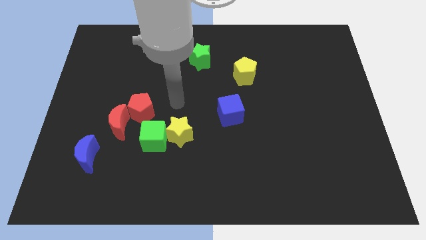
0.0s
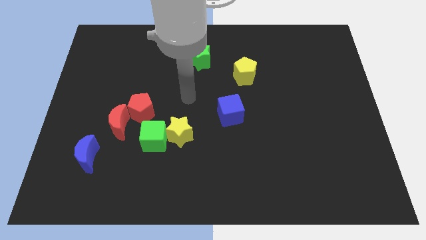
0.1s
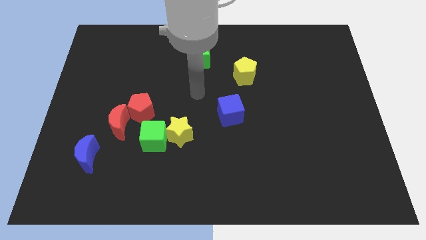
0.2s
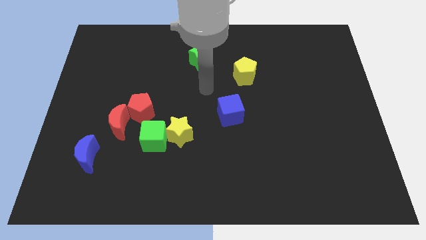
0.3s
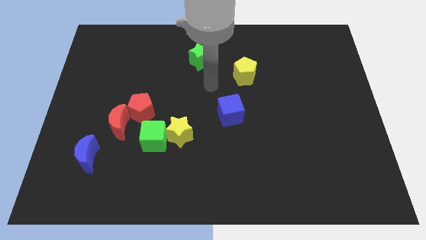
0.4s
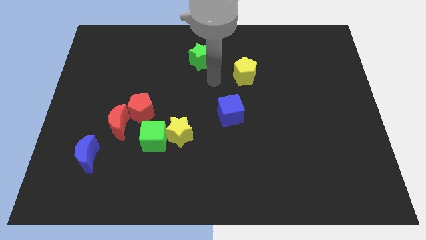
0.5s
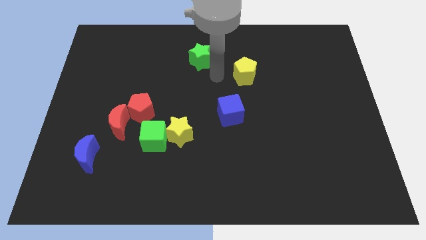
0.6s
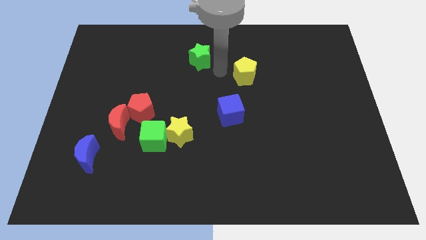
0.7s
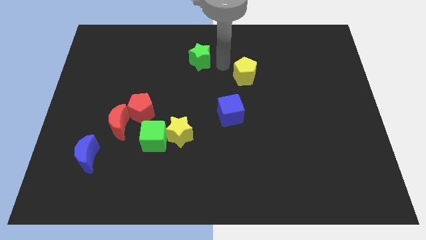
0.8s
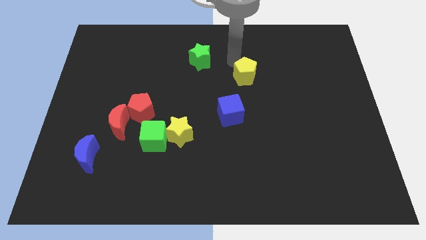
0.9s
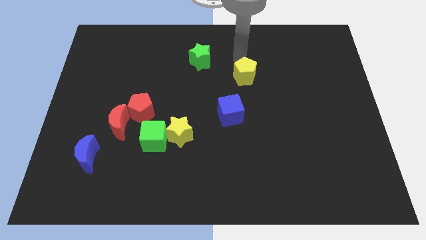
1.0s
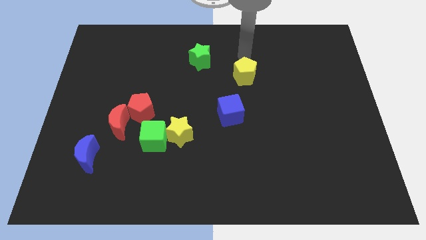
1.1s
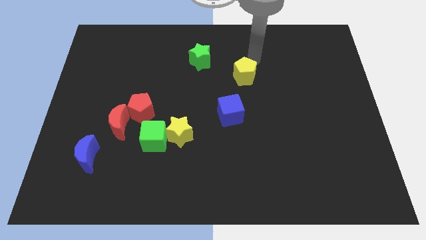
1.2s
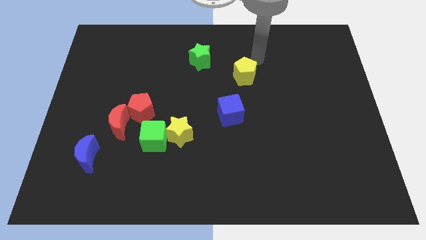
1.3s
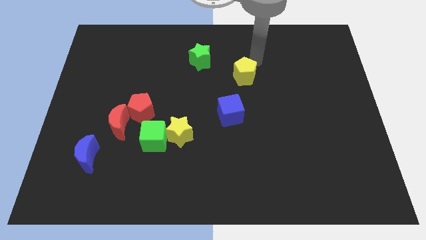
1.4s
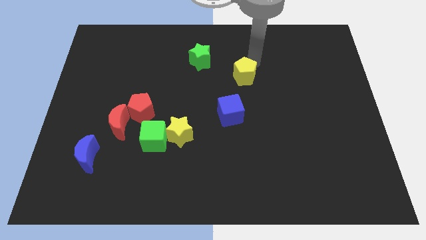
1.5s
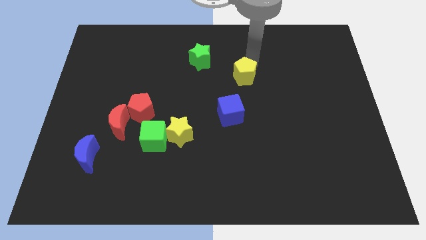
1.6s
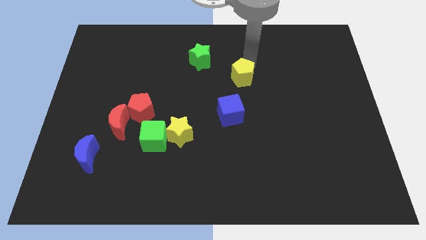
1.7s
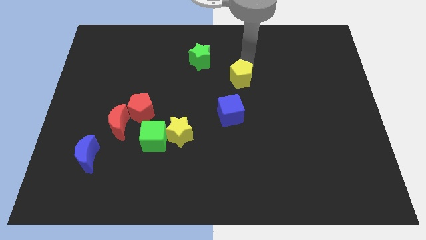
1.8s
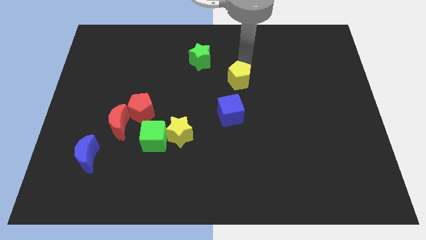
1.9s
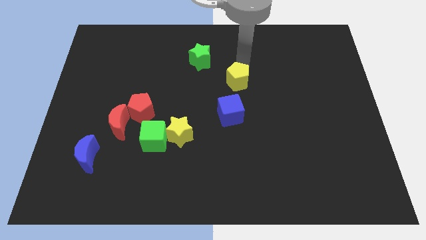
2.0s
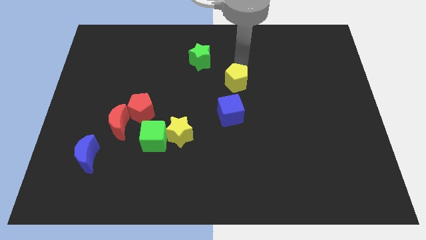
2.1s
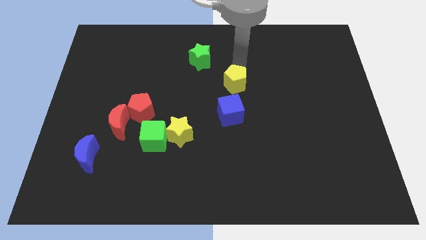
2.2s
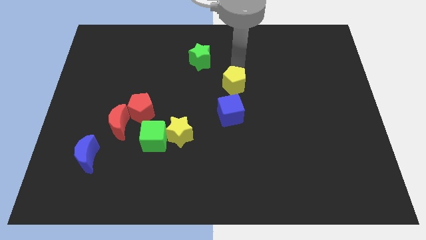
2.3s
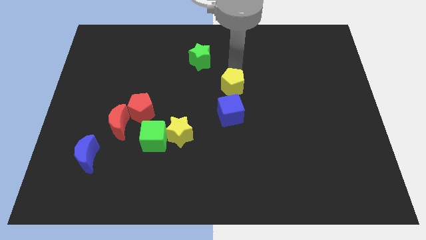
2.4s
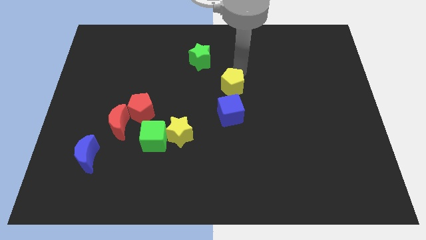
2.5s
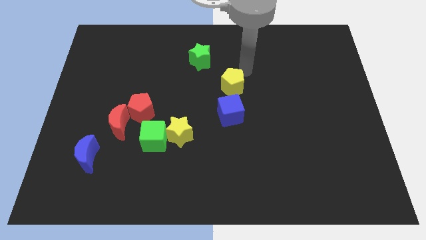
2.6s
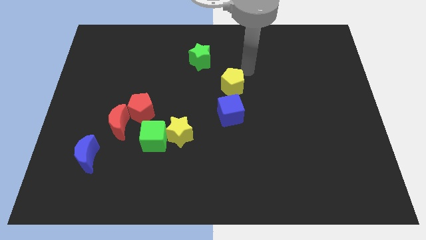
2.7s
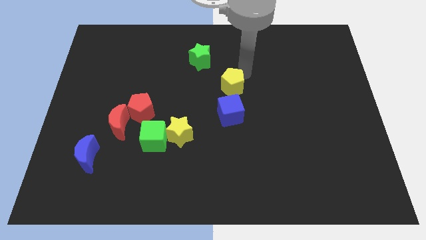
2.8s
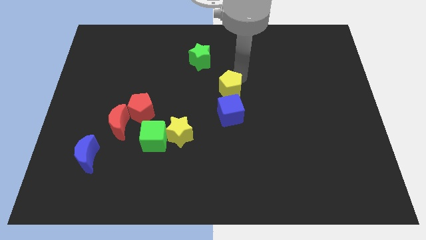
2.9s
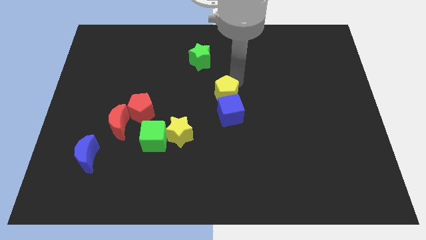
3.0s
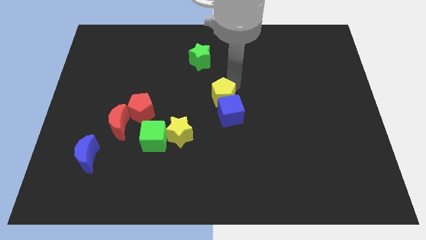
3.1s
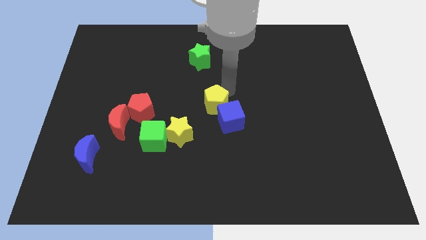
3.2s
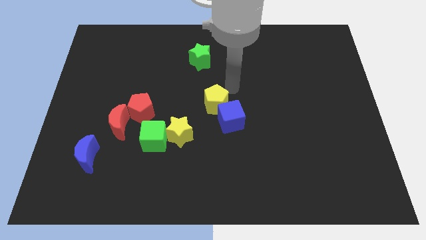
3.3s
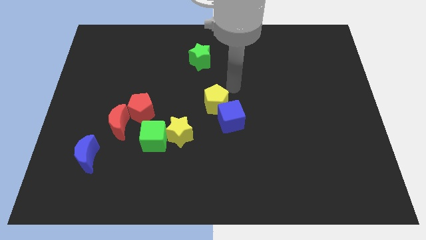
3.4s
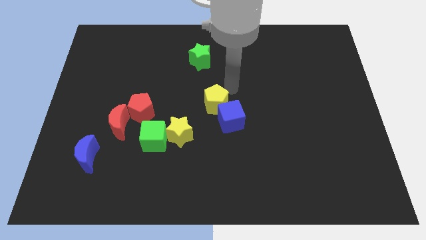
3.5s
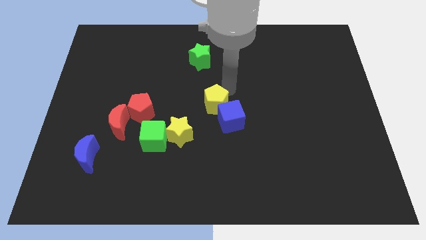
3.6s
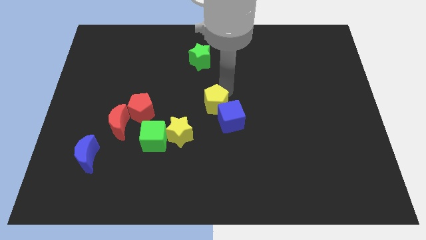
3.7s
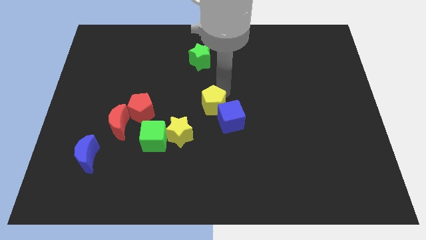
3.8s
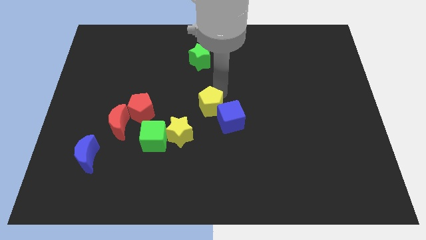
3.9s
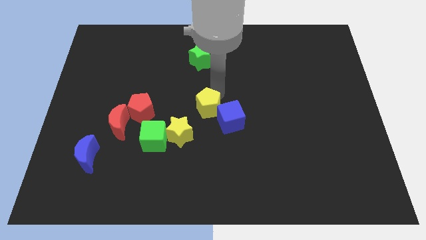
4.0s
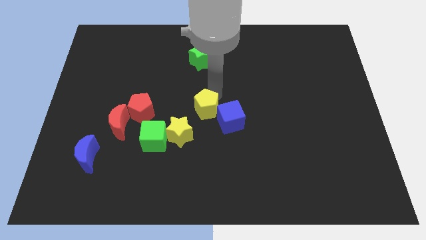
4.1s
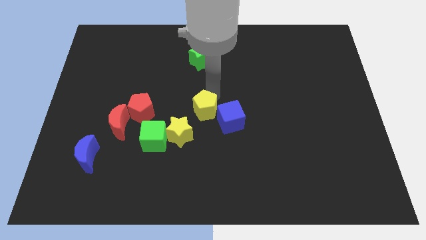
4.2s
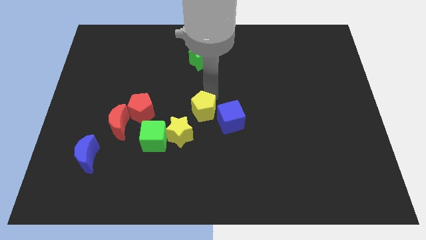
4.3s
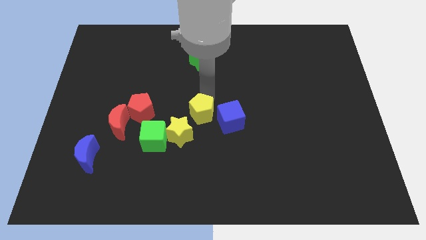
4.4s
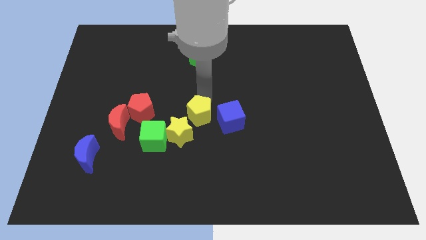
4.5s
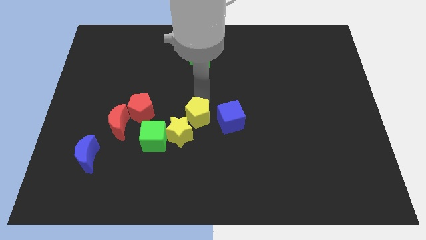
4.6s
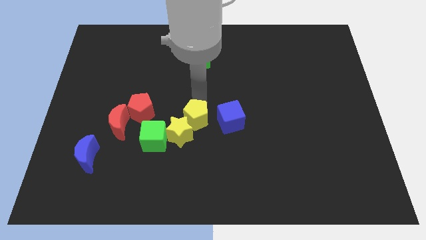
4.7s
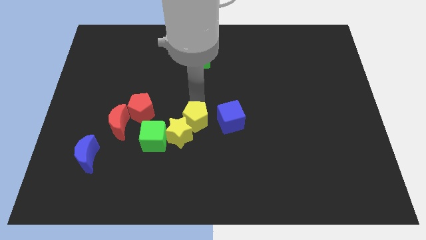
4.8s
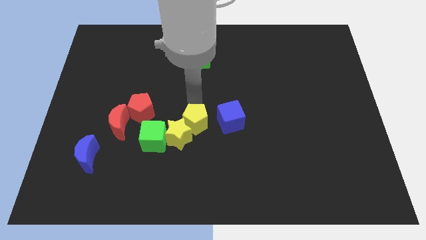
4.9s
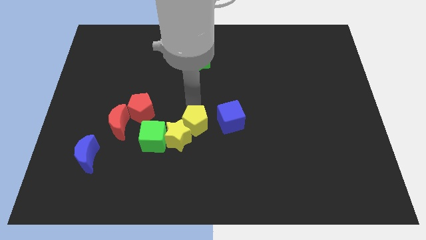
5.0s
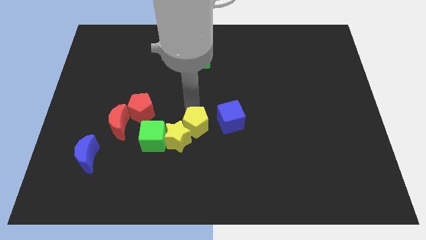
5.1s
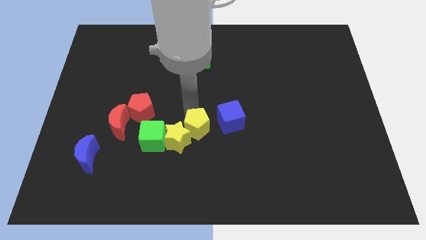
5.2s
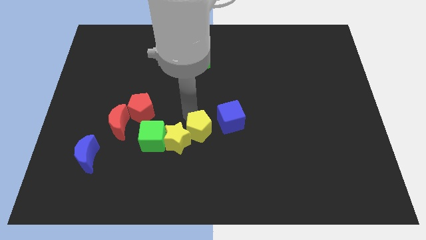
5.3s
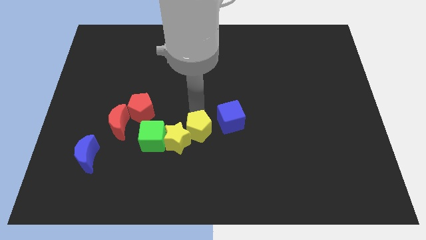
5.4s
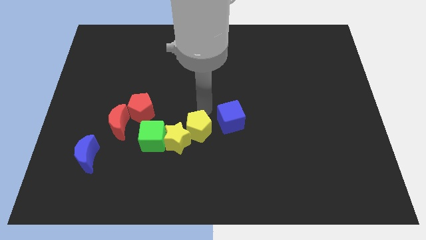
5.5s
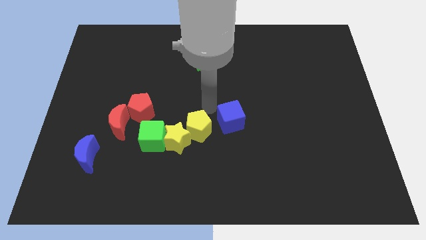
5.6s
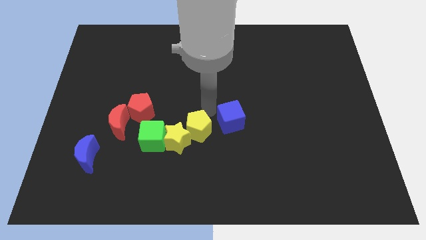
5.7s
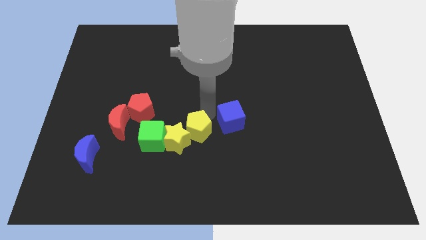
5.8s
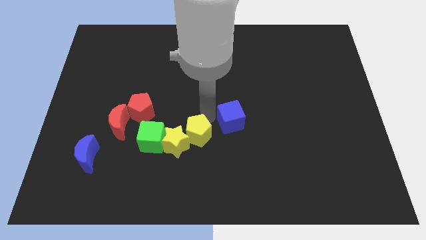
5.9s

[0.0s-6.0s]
slide the yellow pentagon downwards and then to the left

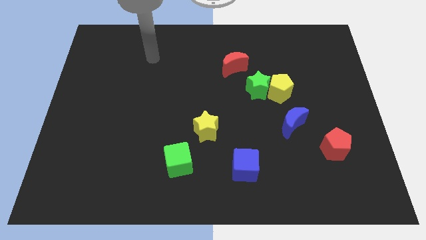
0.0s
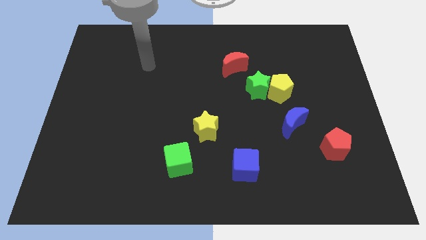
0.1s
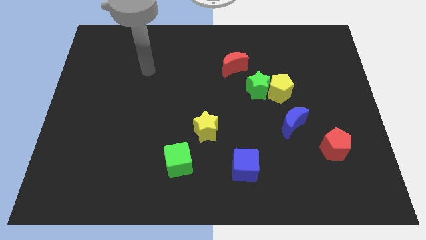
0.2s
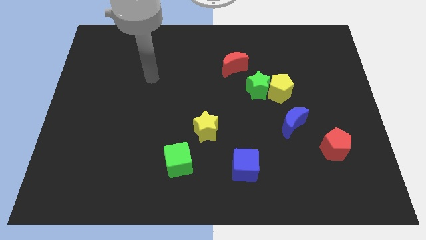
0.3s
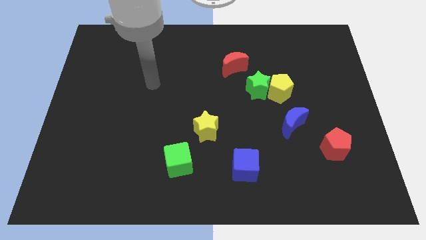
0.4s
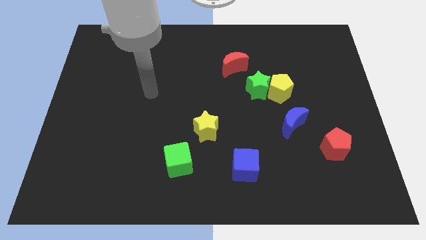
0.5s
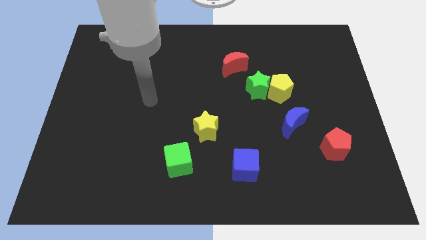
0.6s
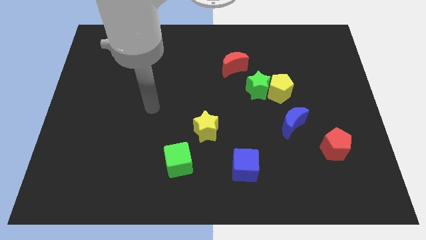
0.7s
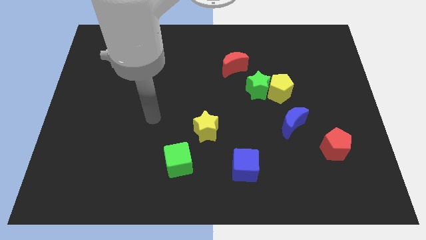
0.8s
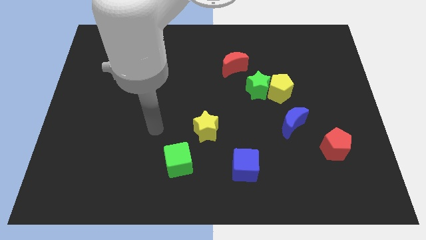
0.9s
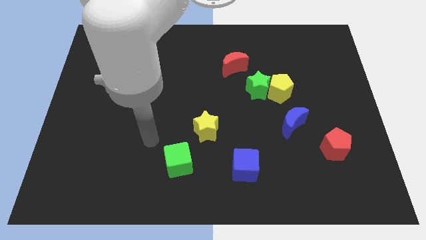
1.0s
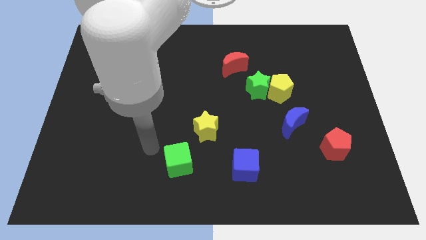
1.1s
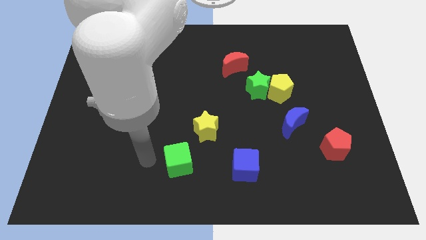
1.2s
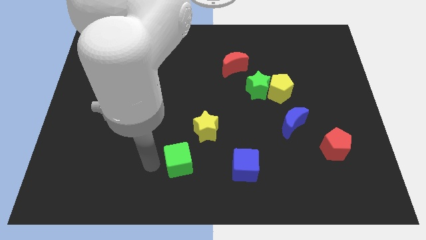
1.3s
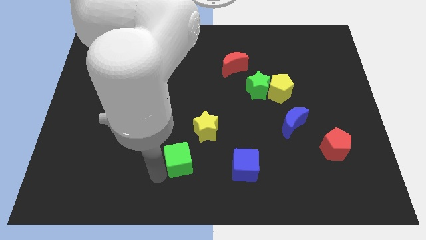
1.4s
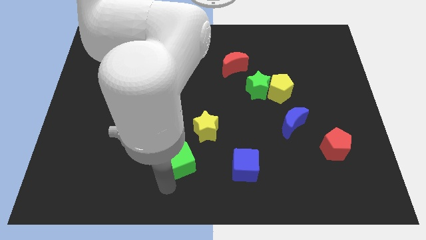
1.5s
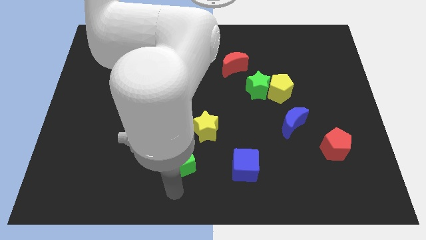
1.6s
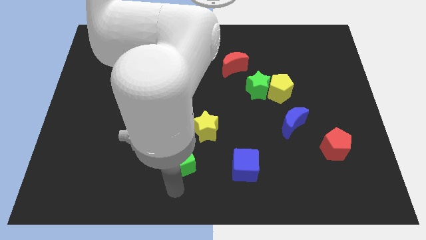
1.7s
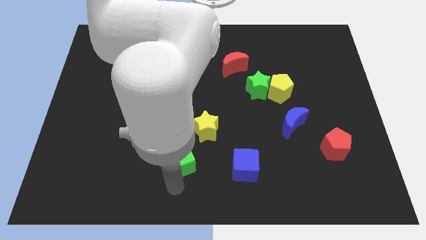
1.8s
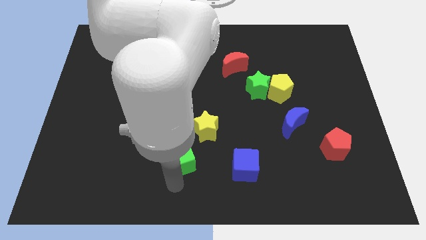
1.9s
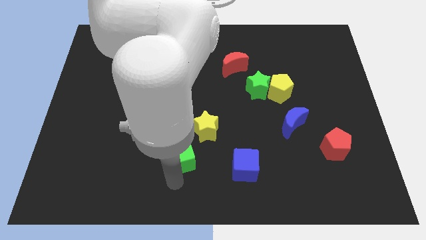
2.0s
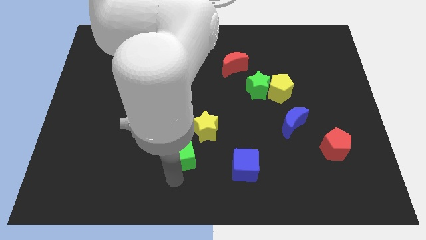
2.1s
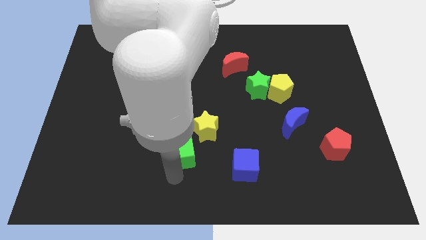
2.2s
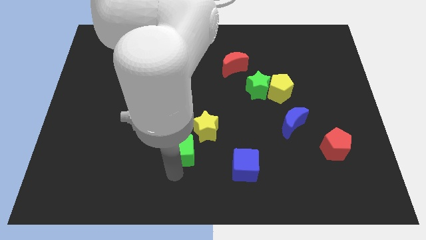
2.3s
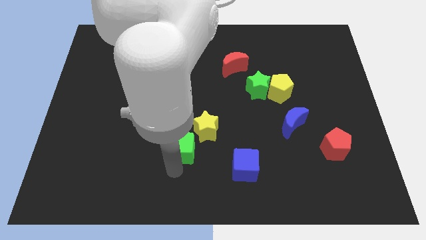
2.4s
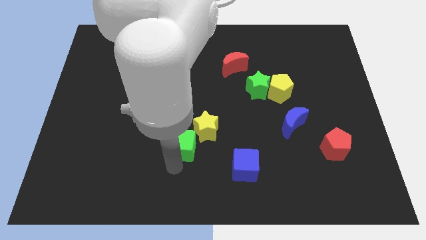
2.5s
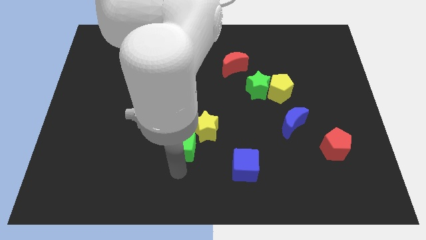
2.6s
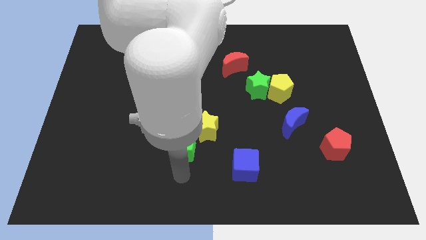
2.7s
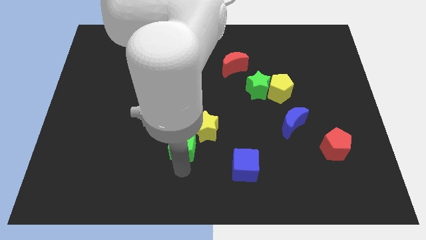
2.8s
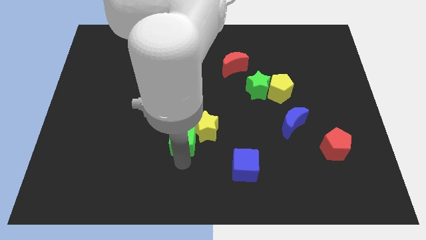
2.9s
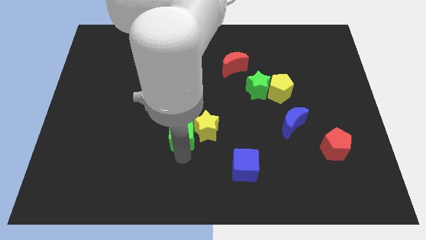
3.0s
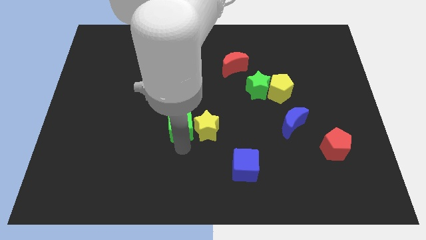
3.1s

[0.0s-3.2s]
slide the green cube slightly upwards
